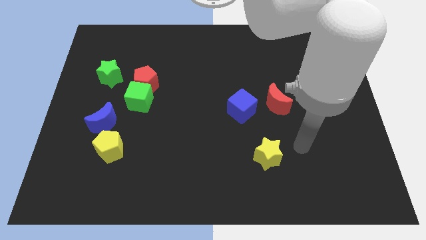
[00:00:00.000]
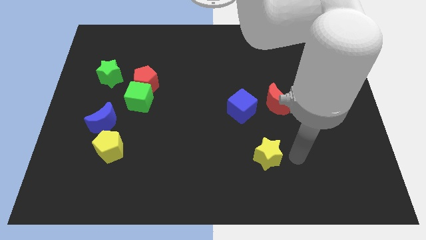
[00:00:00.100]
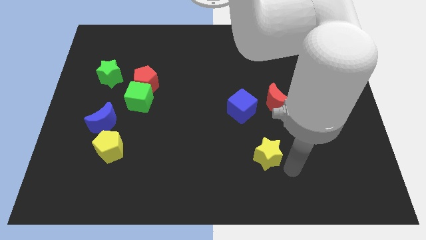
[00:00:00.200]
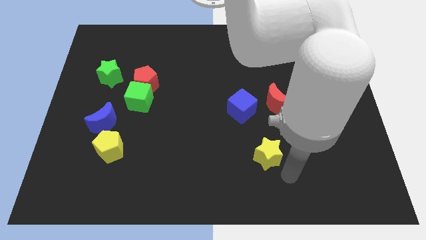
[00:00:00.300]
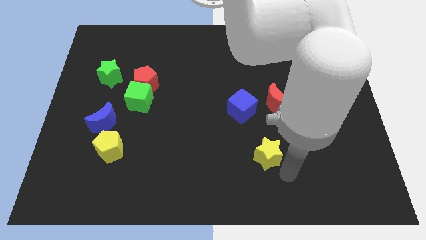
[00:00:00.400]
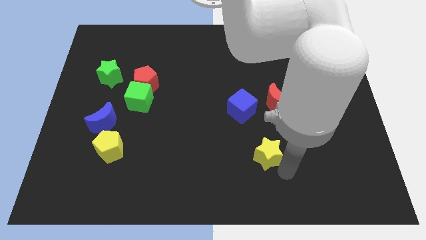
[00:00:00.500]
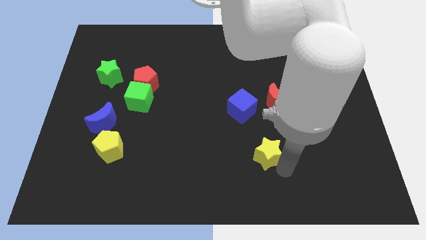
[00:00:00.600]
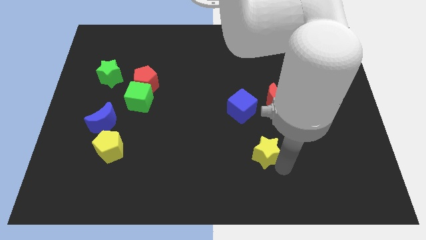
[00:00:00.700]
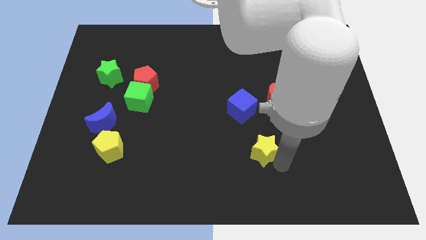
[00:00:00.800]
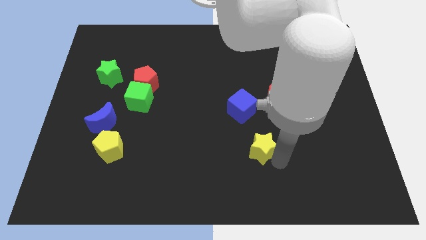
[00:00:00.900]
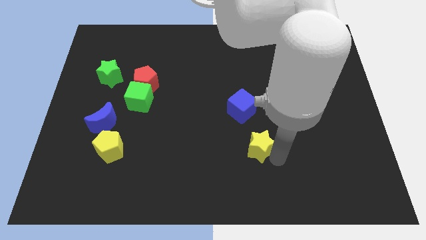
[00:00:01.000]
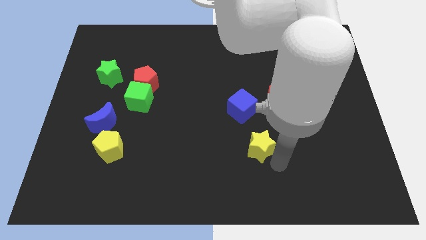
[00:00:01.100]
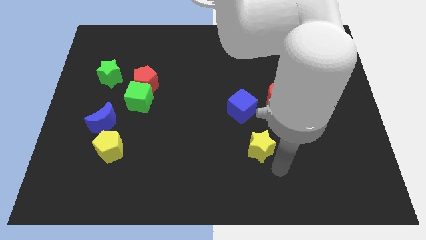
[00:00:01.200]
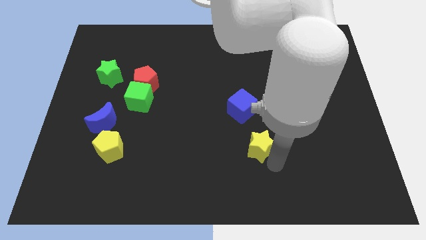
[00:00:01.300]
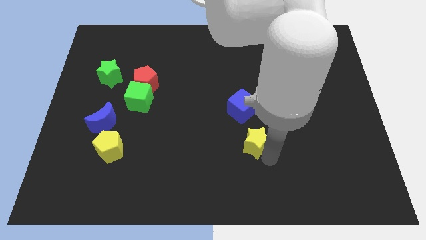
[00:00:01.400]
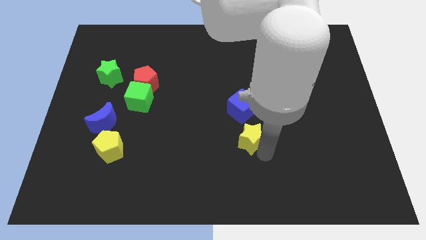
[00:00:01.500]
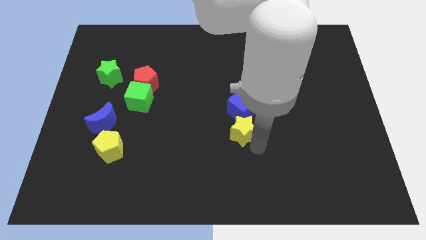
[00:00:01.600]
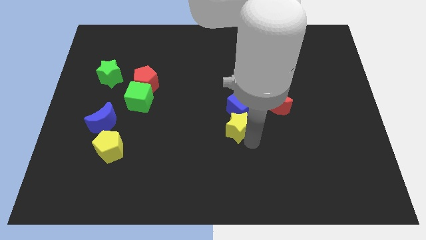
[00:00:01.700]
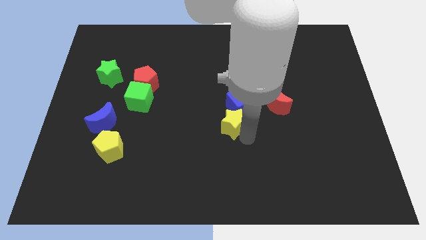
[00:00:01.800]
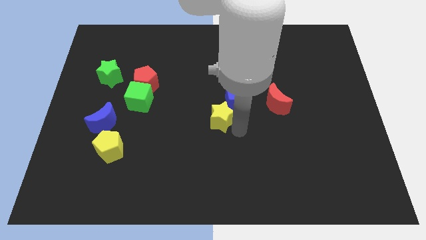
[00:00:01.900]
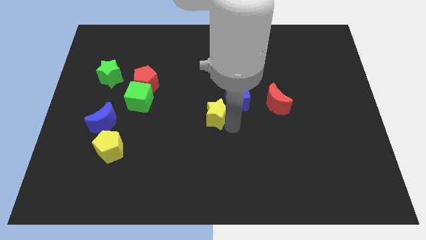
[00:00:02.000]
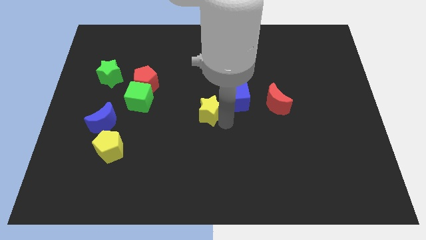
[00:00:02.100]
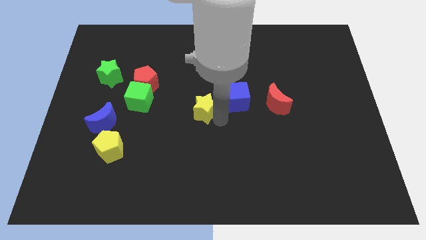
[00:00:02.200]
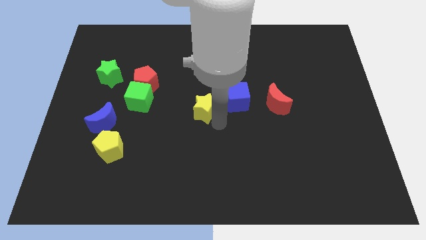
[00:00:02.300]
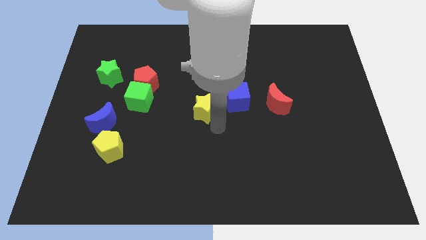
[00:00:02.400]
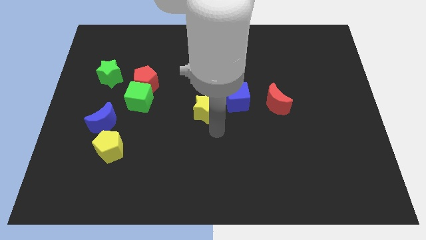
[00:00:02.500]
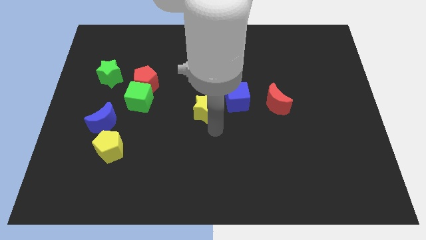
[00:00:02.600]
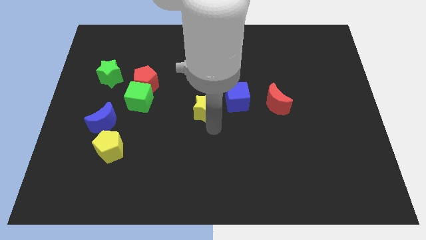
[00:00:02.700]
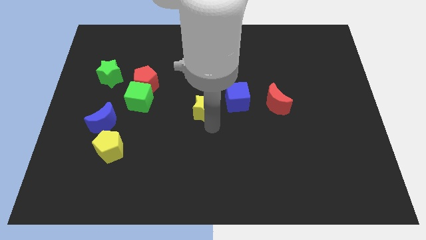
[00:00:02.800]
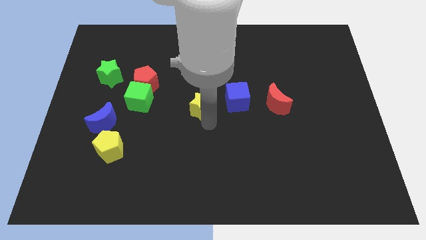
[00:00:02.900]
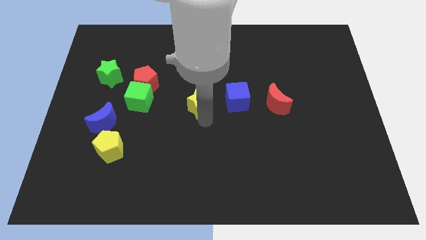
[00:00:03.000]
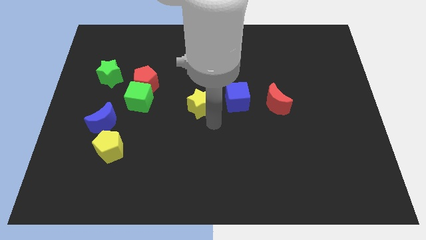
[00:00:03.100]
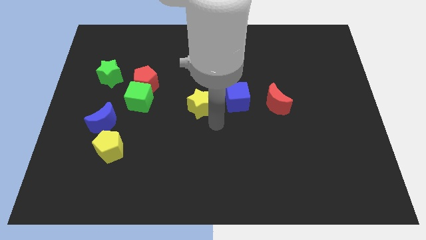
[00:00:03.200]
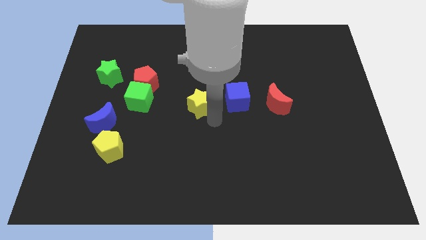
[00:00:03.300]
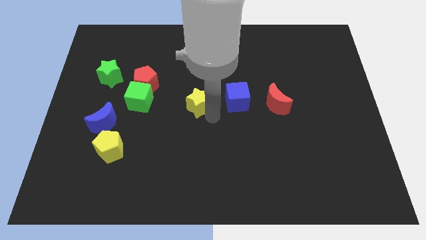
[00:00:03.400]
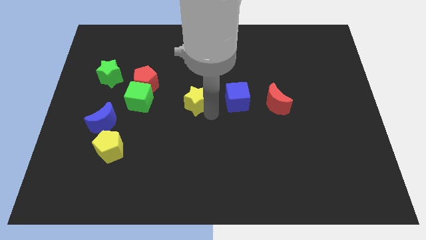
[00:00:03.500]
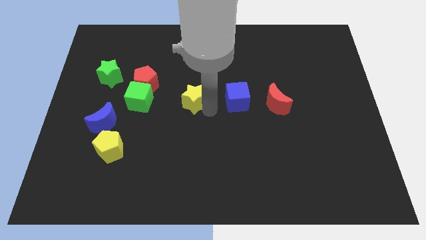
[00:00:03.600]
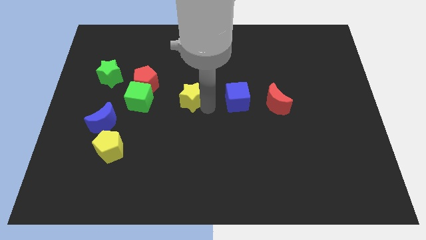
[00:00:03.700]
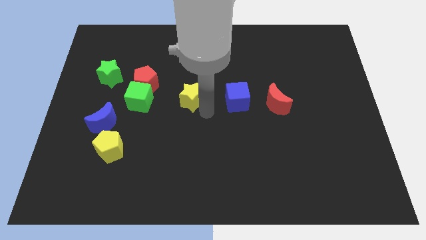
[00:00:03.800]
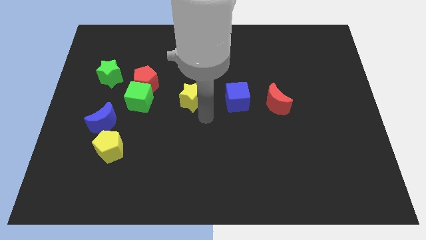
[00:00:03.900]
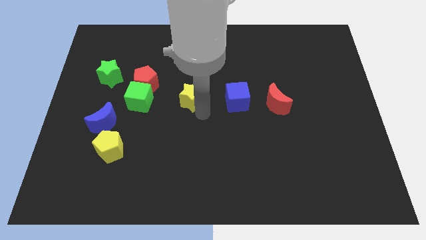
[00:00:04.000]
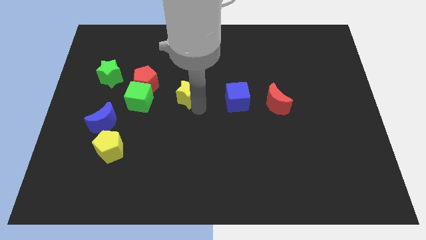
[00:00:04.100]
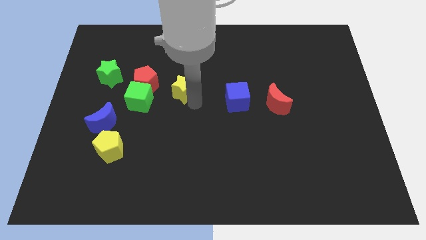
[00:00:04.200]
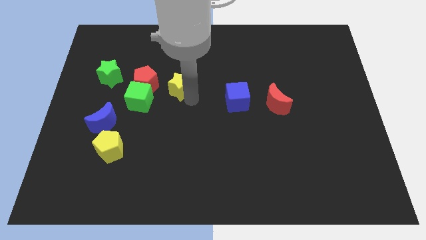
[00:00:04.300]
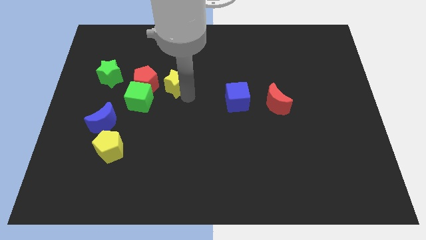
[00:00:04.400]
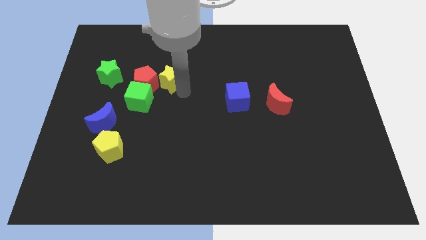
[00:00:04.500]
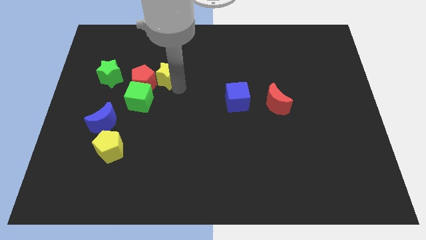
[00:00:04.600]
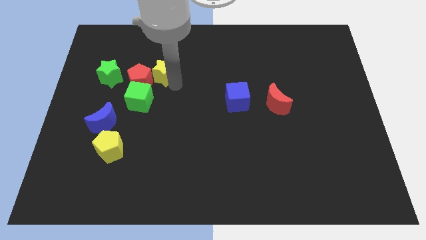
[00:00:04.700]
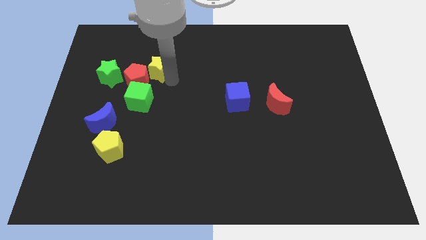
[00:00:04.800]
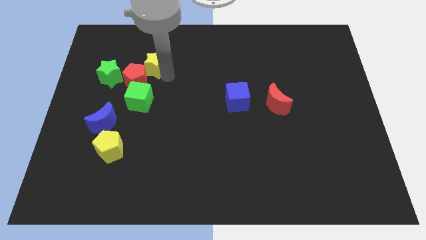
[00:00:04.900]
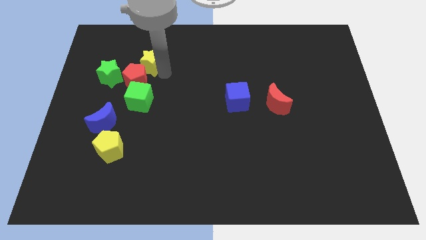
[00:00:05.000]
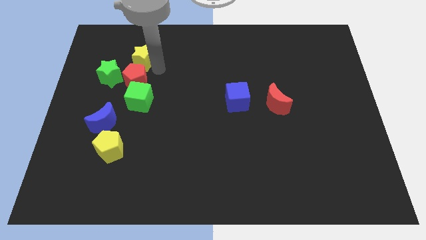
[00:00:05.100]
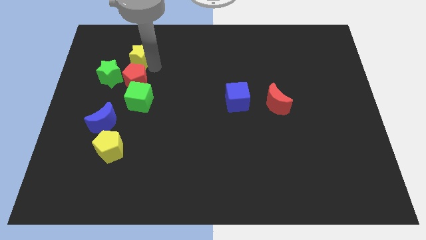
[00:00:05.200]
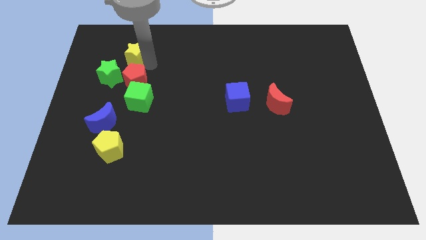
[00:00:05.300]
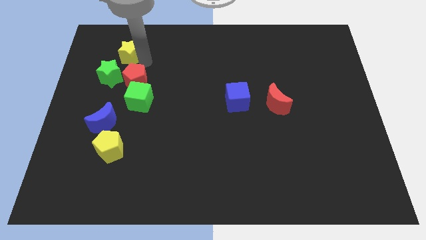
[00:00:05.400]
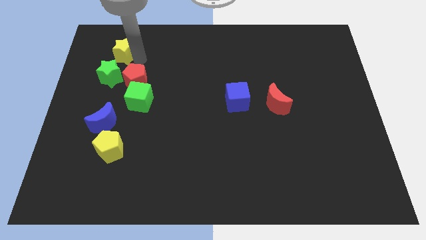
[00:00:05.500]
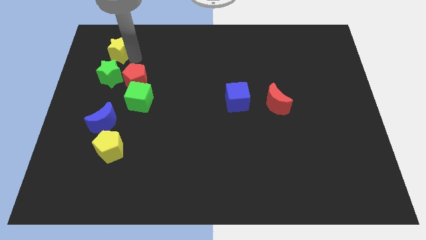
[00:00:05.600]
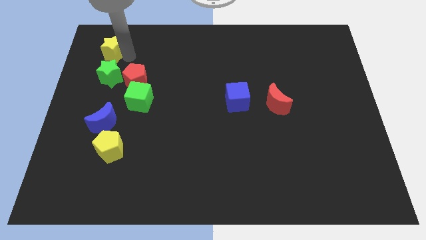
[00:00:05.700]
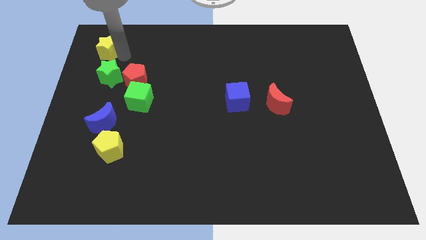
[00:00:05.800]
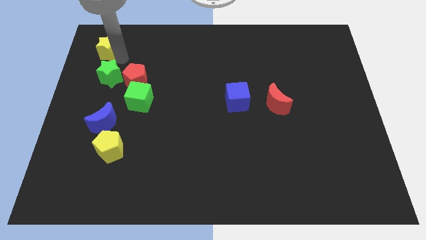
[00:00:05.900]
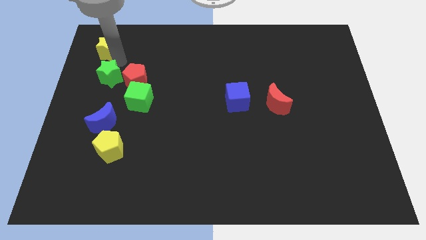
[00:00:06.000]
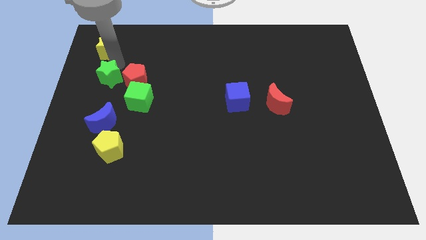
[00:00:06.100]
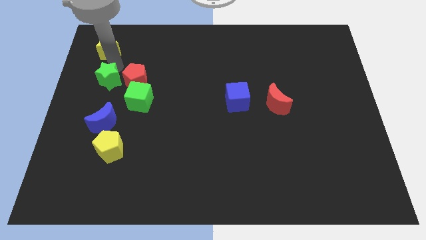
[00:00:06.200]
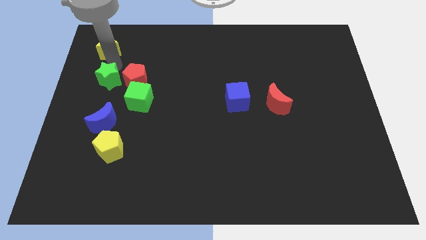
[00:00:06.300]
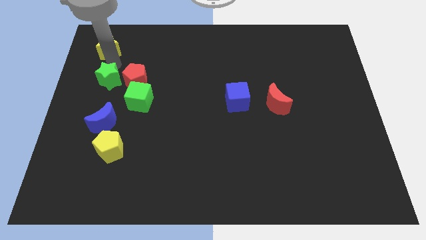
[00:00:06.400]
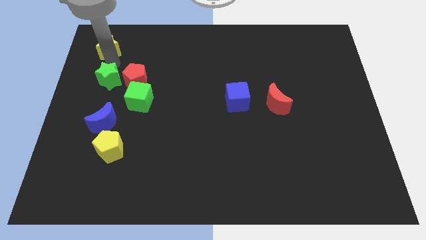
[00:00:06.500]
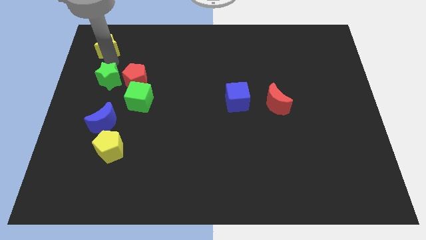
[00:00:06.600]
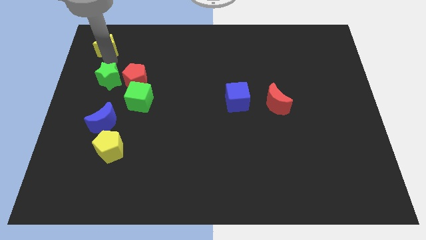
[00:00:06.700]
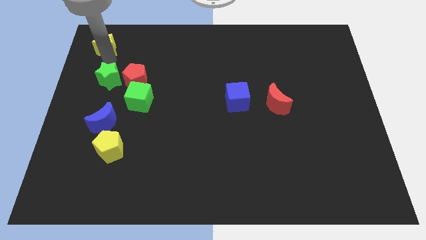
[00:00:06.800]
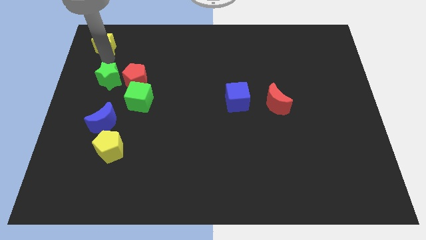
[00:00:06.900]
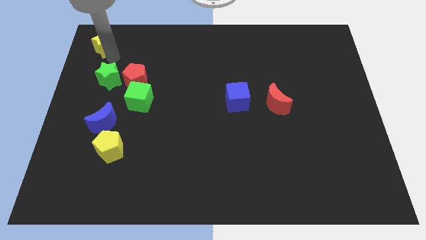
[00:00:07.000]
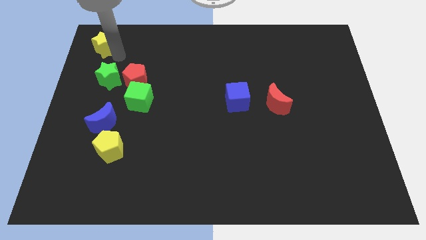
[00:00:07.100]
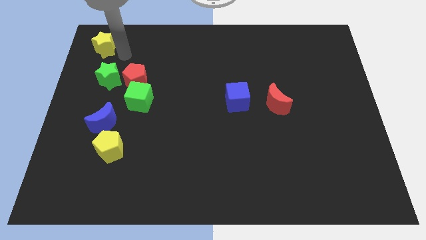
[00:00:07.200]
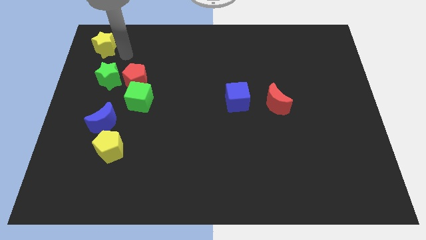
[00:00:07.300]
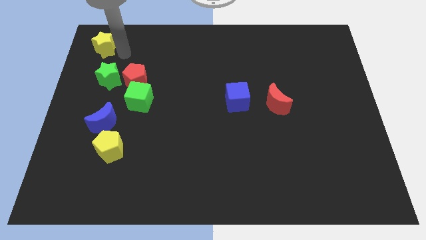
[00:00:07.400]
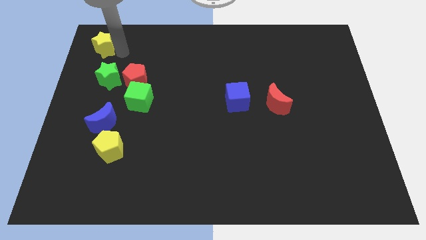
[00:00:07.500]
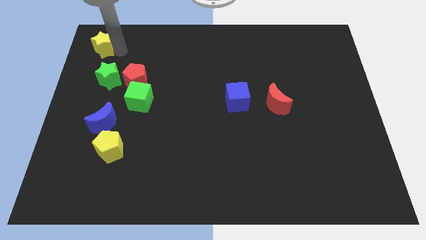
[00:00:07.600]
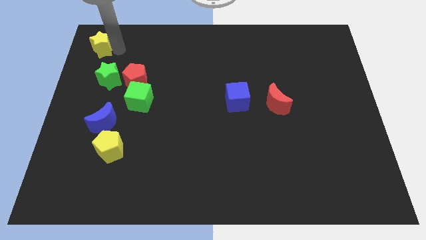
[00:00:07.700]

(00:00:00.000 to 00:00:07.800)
push the yellow star to the top left
